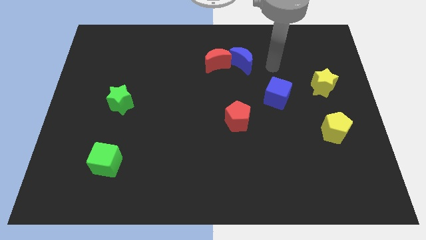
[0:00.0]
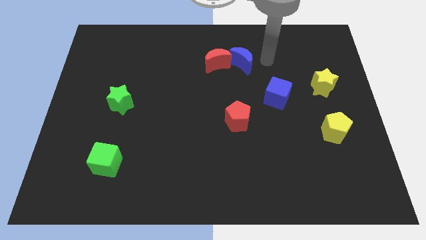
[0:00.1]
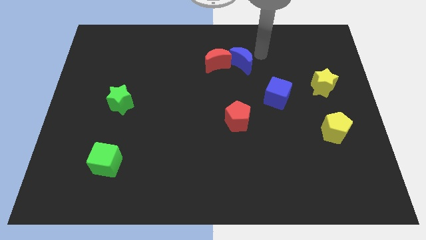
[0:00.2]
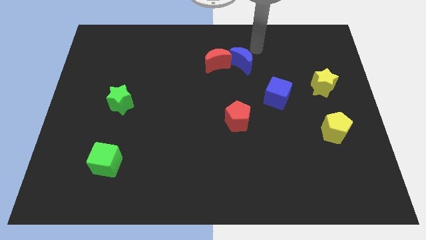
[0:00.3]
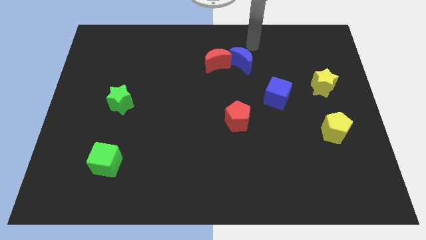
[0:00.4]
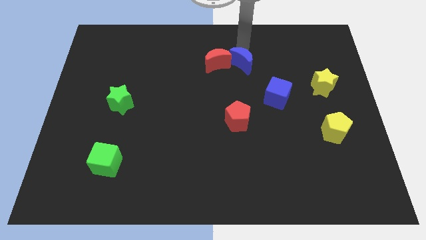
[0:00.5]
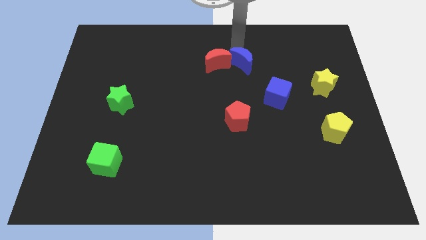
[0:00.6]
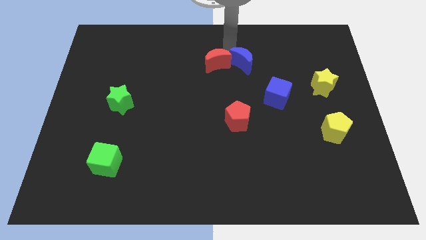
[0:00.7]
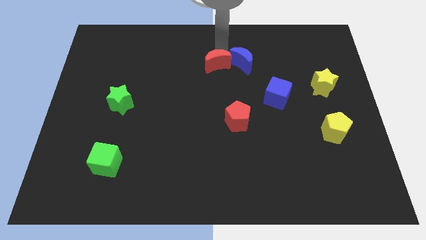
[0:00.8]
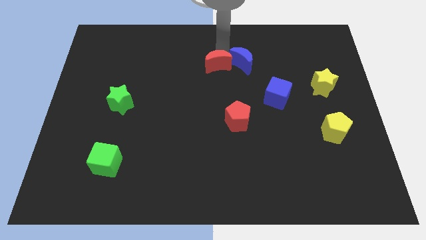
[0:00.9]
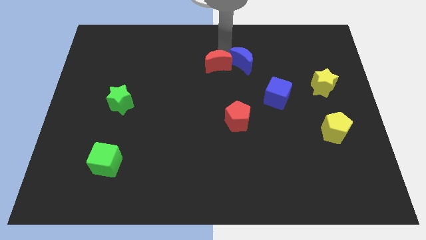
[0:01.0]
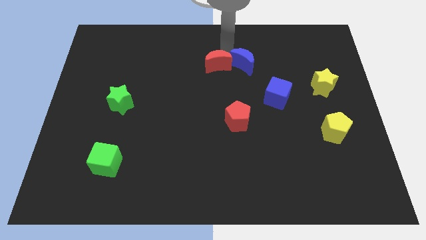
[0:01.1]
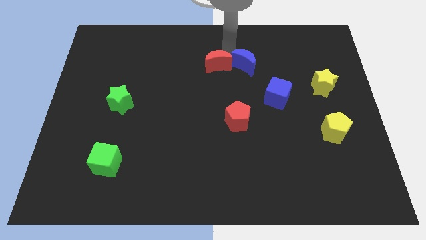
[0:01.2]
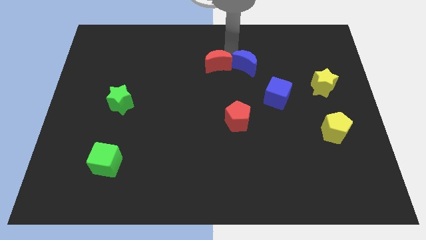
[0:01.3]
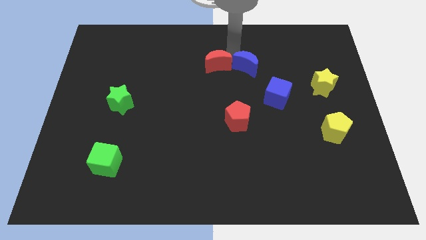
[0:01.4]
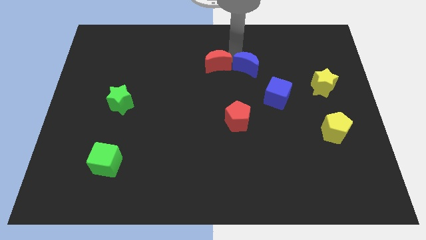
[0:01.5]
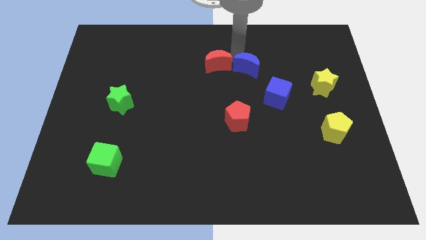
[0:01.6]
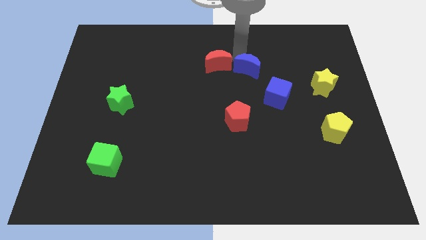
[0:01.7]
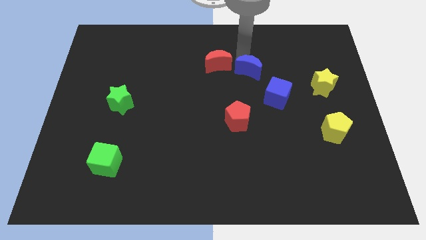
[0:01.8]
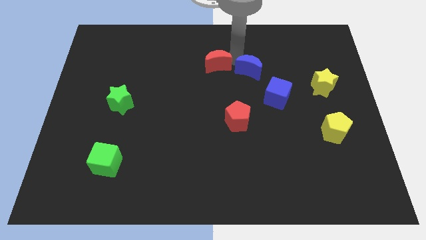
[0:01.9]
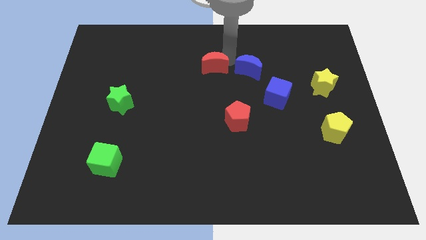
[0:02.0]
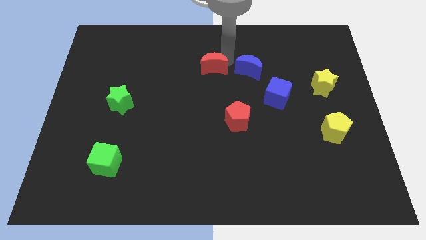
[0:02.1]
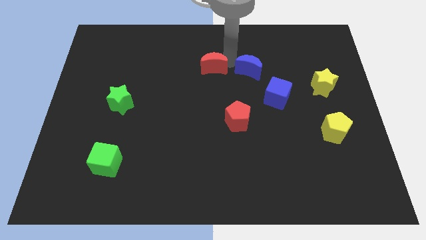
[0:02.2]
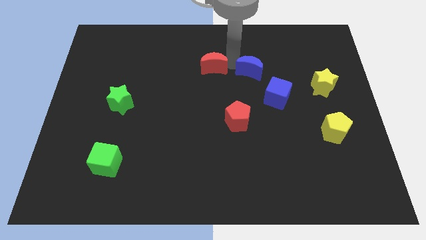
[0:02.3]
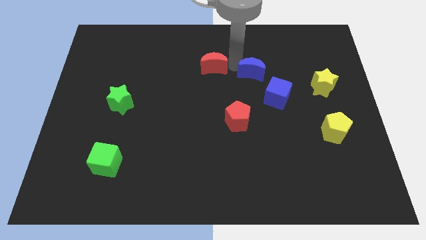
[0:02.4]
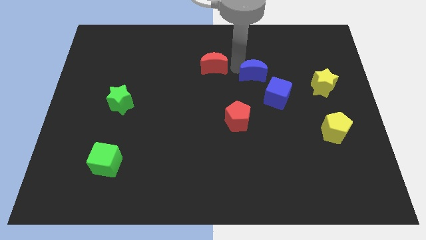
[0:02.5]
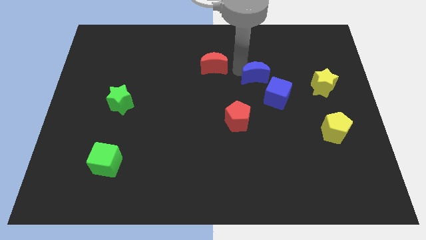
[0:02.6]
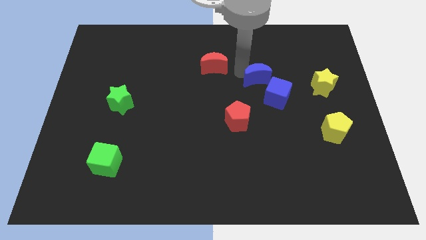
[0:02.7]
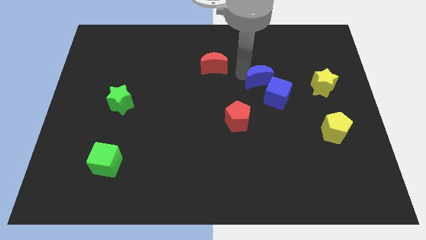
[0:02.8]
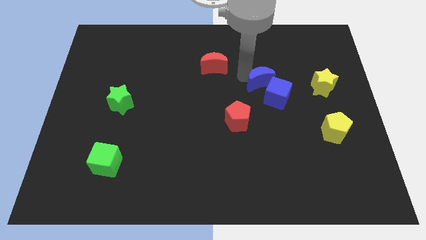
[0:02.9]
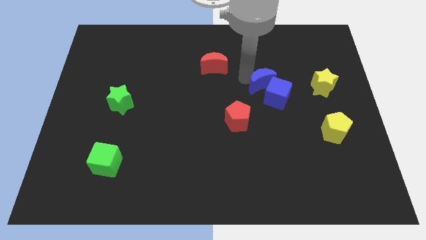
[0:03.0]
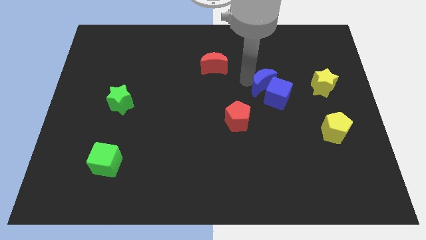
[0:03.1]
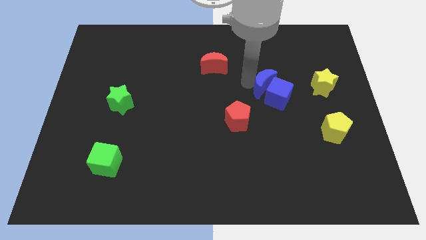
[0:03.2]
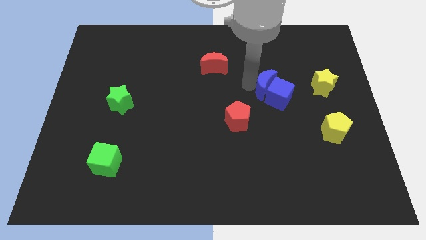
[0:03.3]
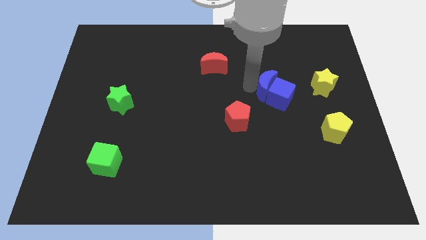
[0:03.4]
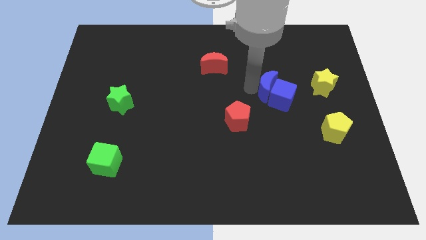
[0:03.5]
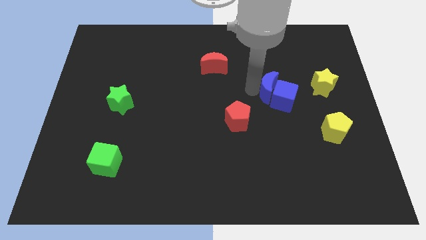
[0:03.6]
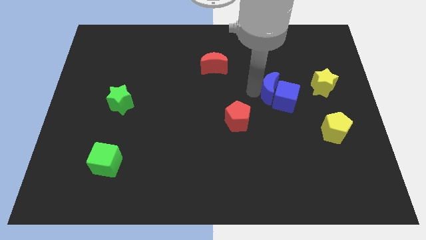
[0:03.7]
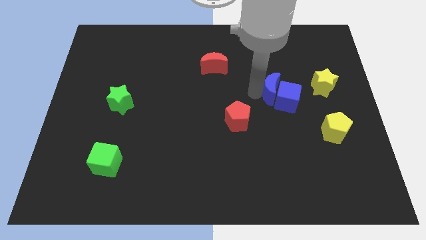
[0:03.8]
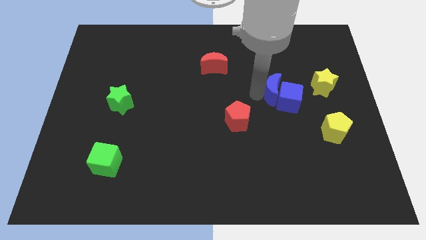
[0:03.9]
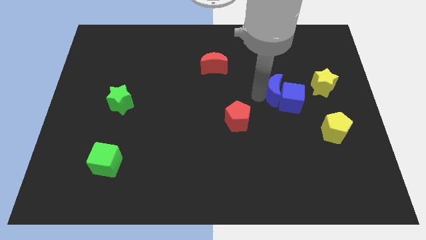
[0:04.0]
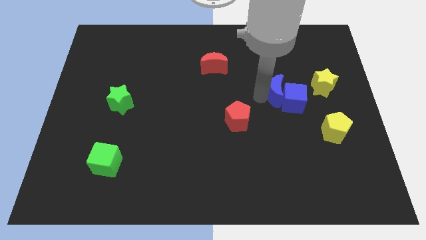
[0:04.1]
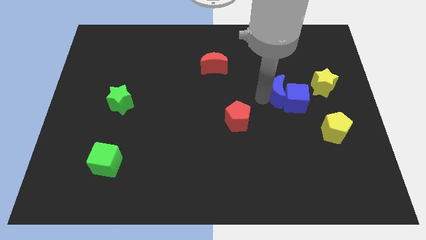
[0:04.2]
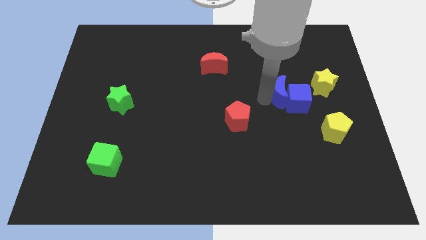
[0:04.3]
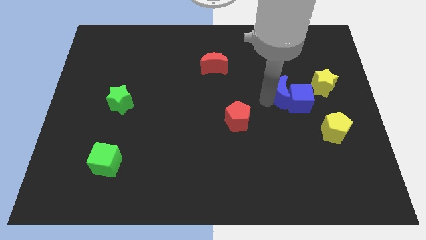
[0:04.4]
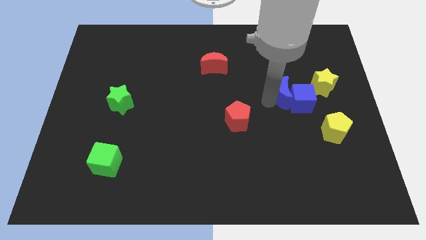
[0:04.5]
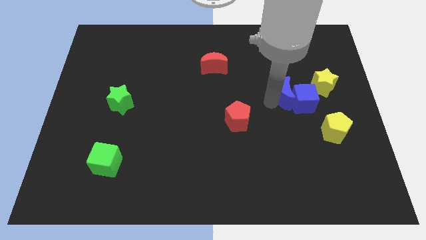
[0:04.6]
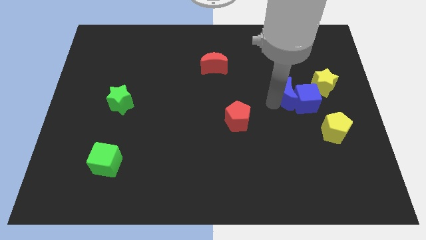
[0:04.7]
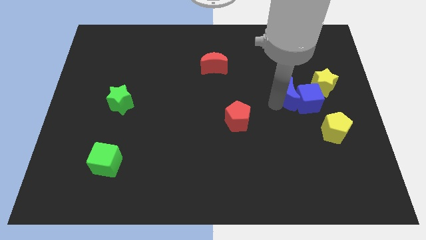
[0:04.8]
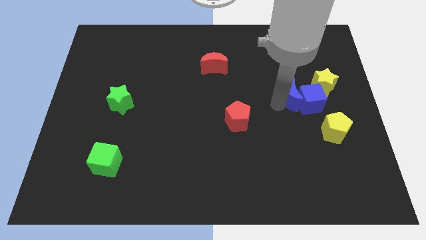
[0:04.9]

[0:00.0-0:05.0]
put the blue moon diagonally up and to the left of the yellow pentagon

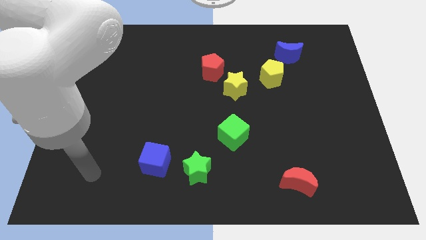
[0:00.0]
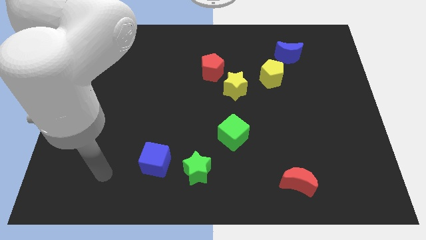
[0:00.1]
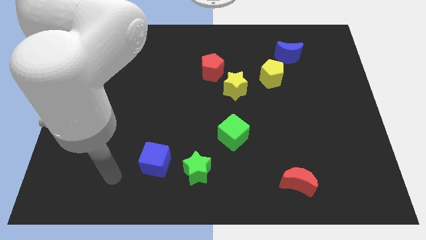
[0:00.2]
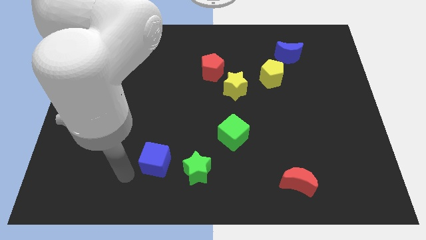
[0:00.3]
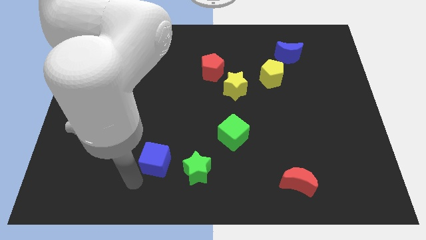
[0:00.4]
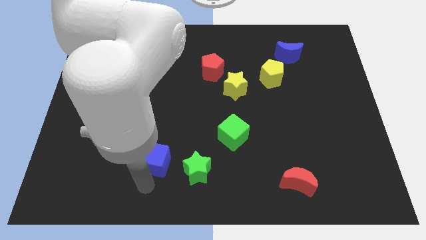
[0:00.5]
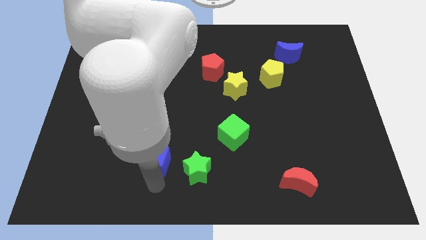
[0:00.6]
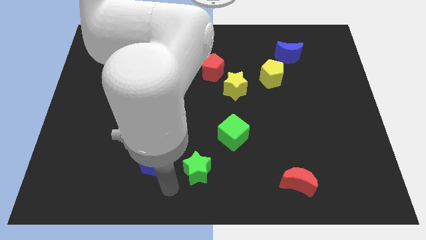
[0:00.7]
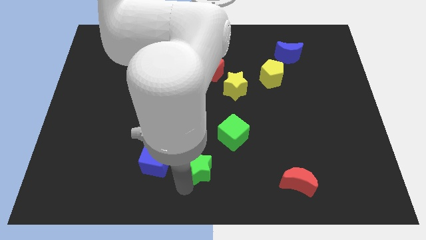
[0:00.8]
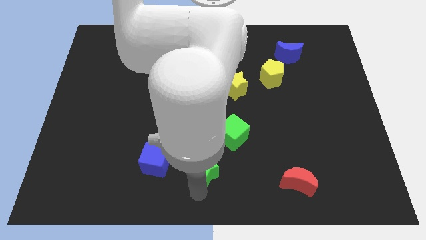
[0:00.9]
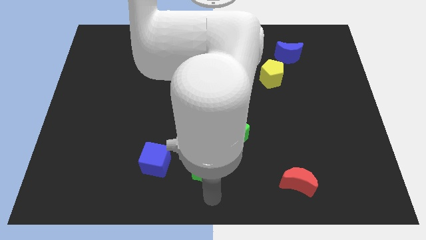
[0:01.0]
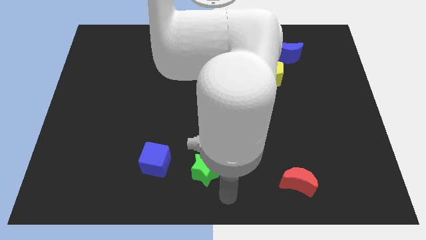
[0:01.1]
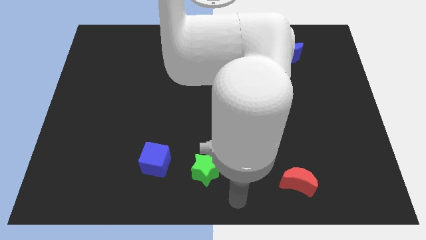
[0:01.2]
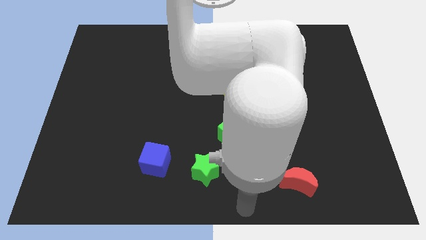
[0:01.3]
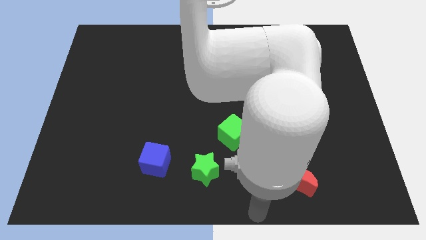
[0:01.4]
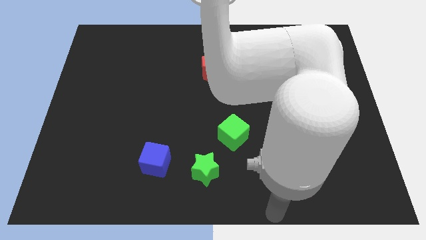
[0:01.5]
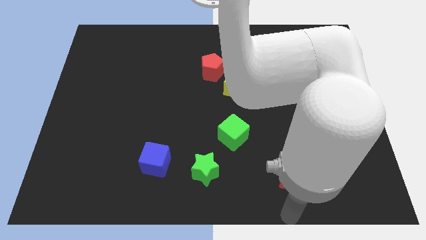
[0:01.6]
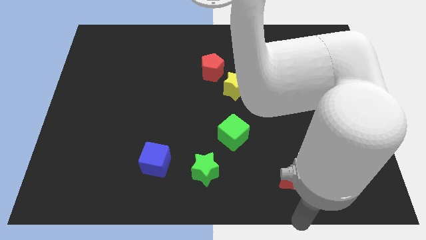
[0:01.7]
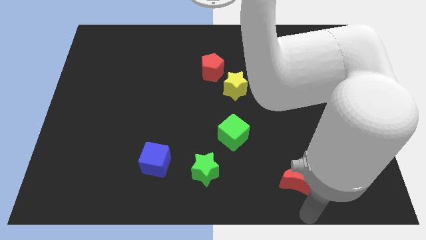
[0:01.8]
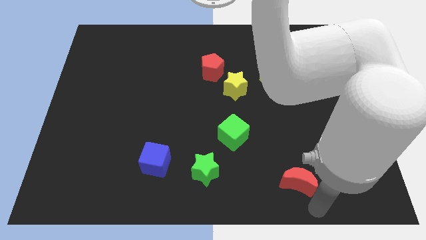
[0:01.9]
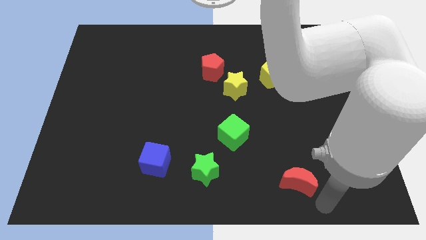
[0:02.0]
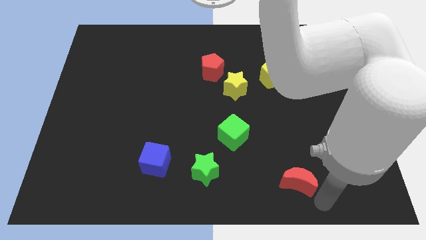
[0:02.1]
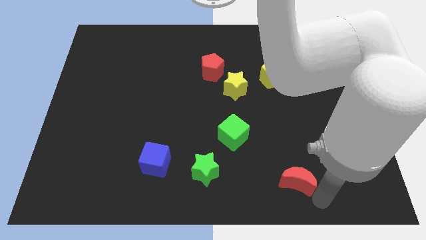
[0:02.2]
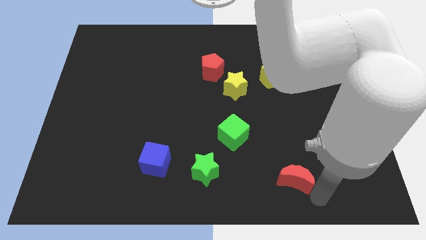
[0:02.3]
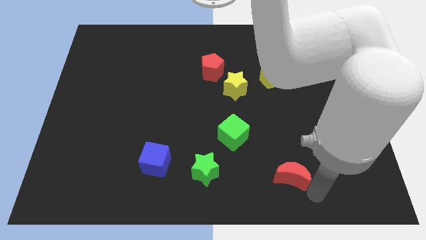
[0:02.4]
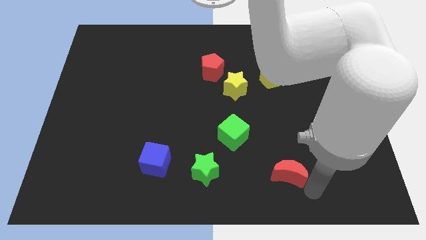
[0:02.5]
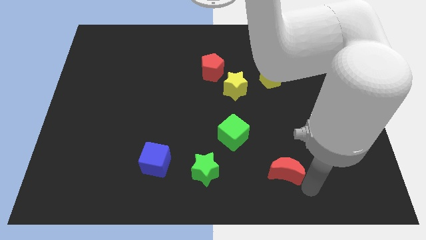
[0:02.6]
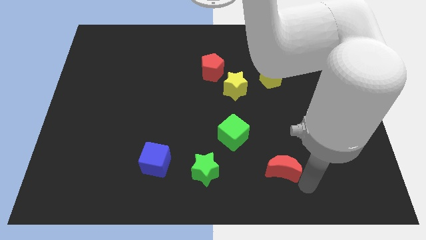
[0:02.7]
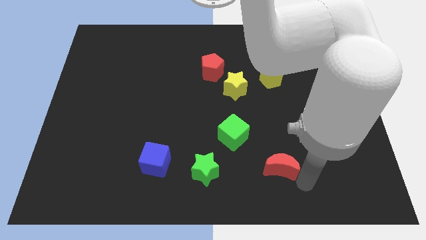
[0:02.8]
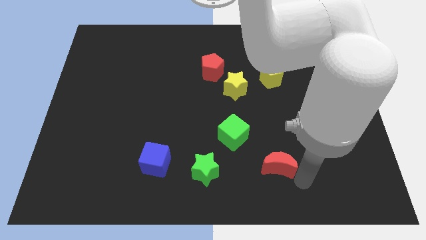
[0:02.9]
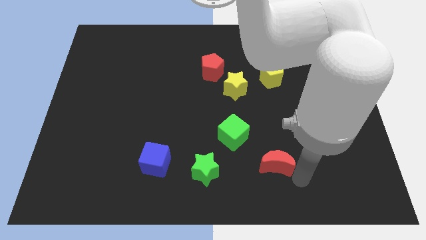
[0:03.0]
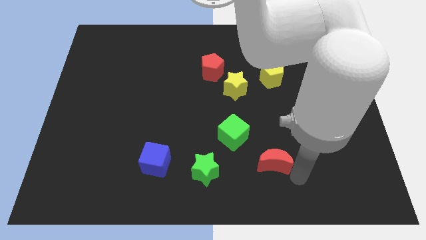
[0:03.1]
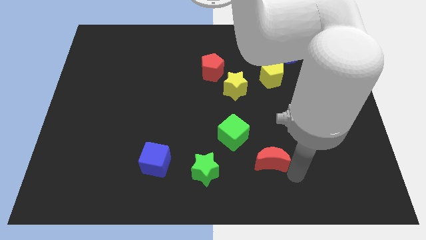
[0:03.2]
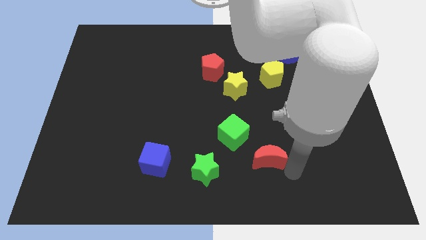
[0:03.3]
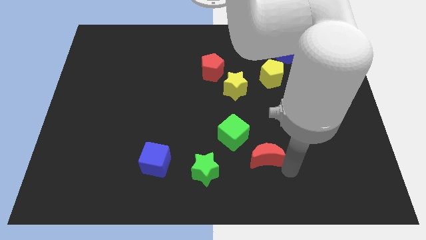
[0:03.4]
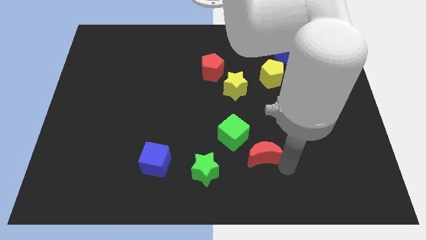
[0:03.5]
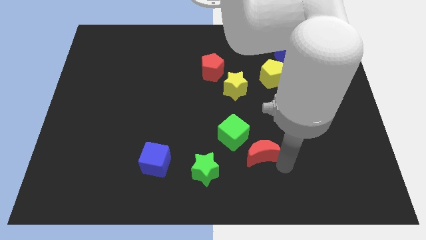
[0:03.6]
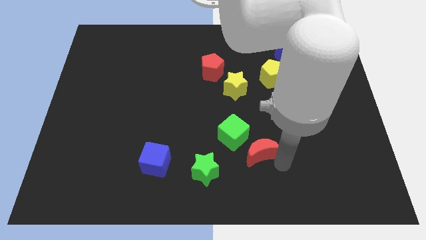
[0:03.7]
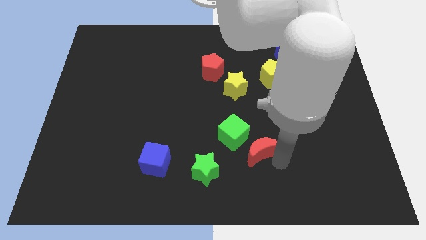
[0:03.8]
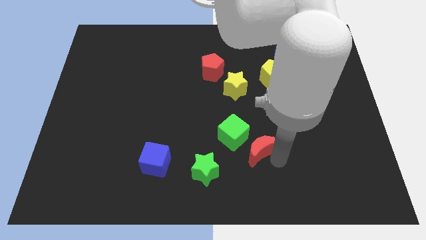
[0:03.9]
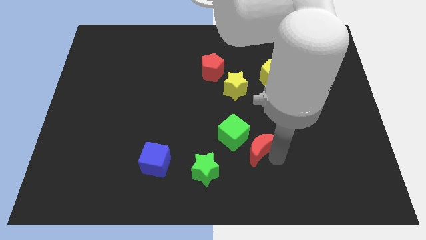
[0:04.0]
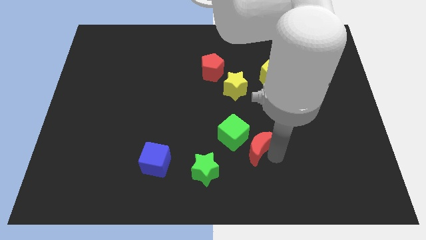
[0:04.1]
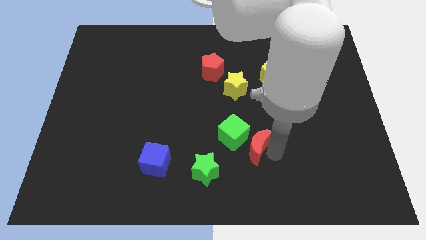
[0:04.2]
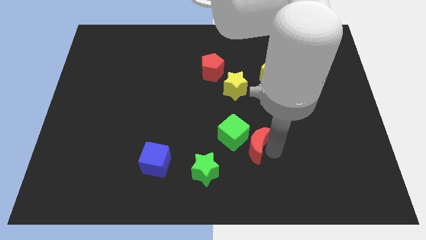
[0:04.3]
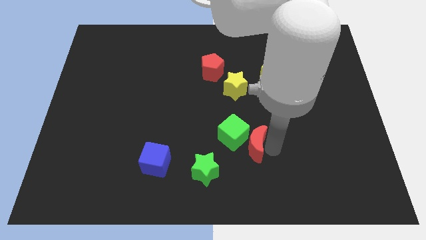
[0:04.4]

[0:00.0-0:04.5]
slide the red moon to the top right of the green star
